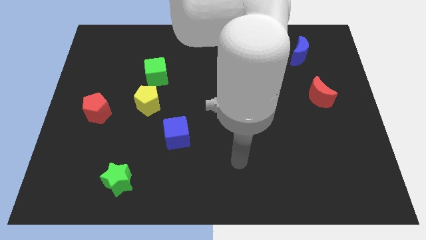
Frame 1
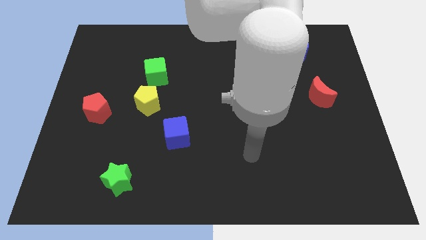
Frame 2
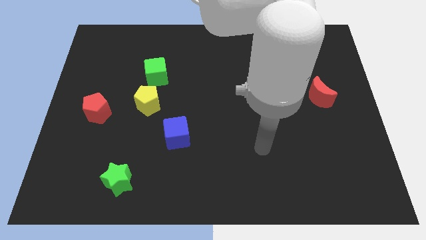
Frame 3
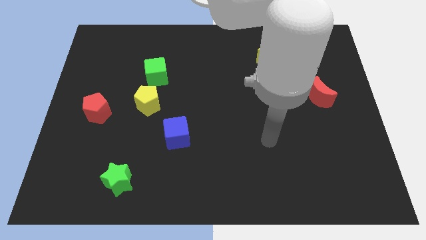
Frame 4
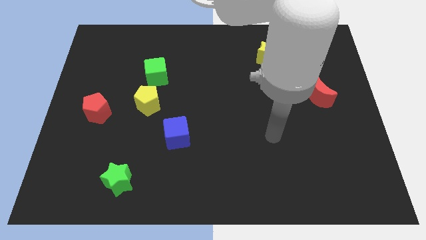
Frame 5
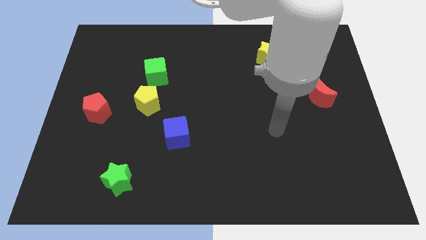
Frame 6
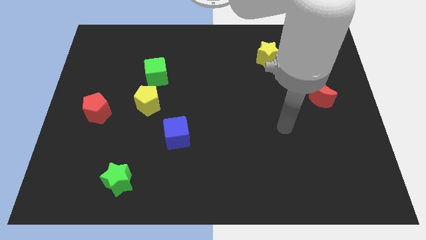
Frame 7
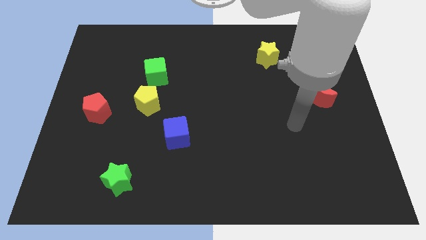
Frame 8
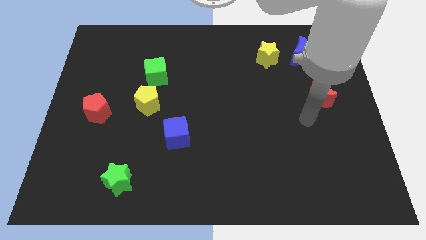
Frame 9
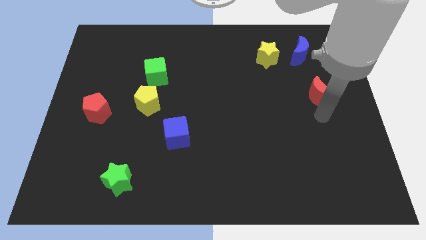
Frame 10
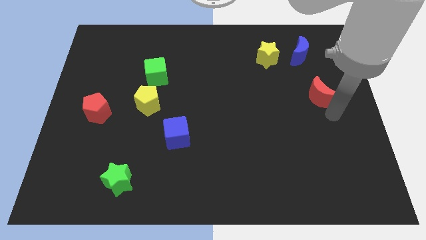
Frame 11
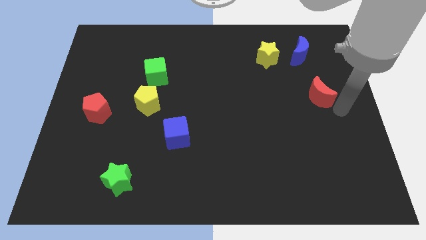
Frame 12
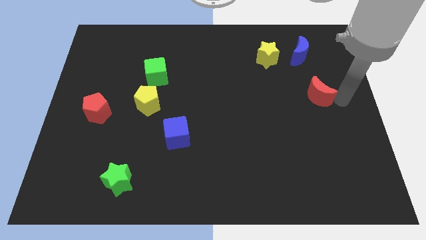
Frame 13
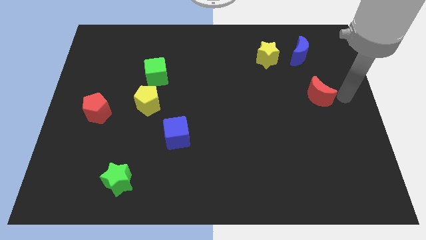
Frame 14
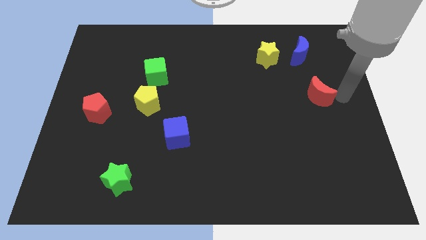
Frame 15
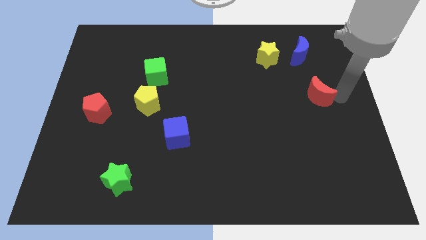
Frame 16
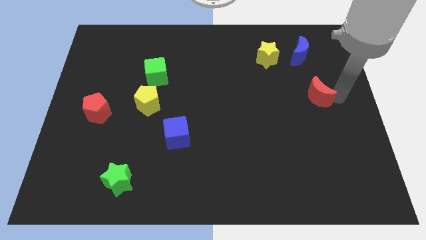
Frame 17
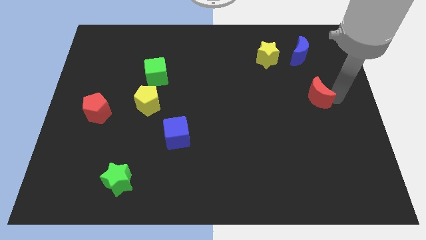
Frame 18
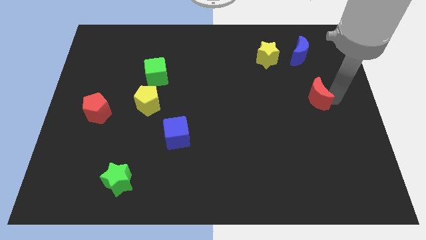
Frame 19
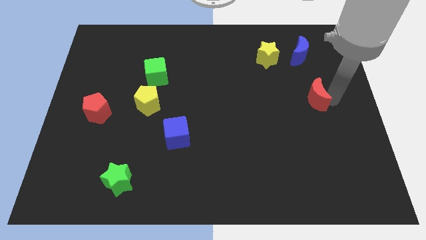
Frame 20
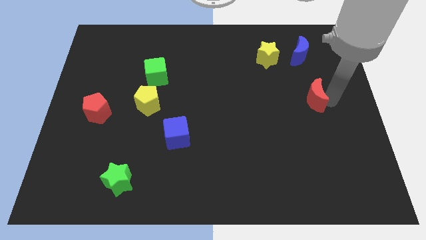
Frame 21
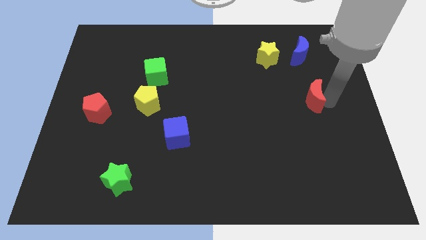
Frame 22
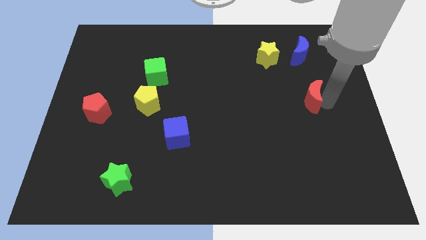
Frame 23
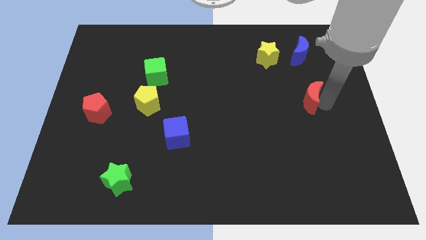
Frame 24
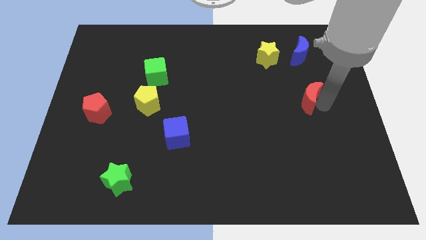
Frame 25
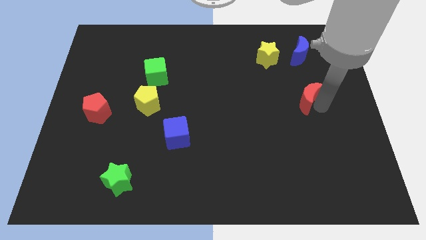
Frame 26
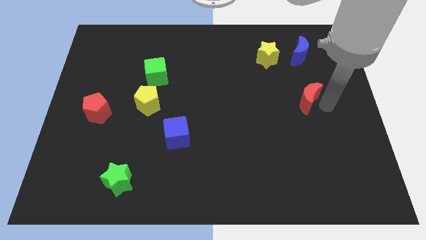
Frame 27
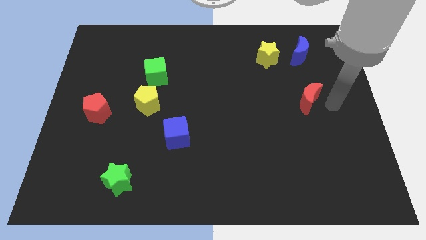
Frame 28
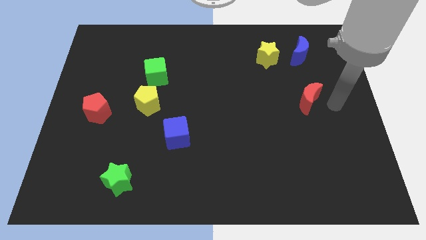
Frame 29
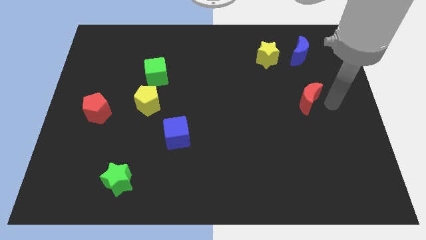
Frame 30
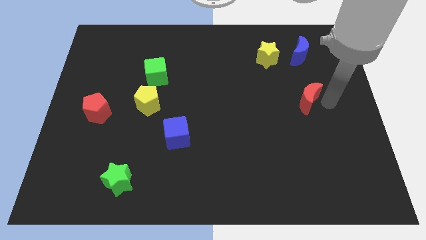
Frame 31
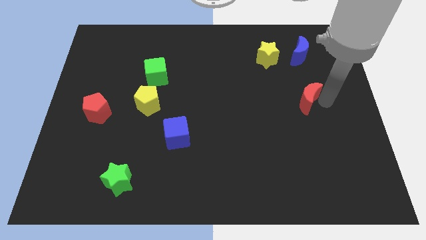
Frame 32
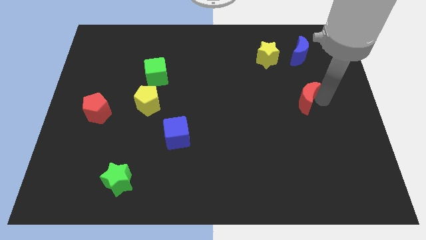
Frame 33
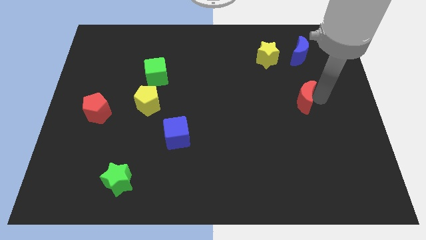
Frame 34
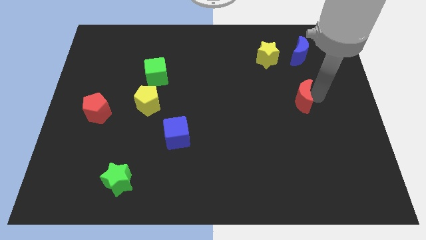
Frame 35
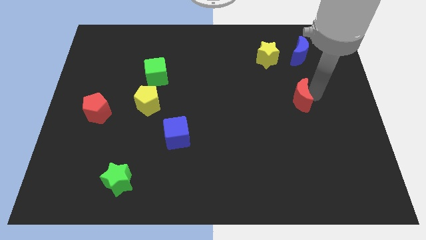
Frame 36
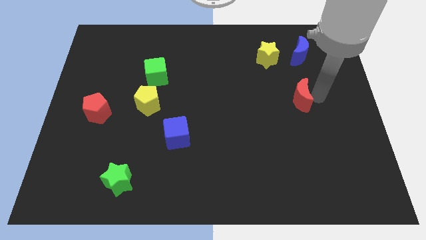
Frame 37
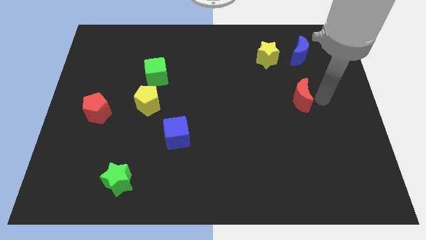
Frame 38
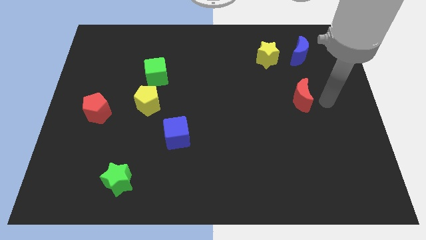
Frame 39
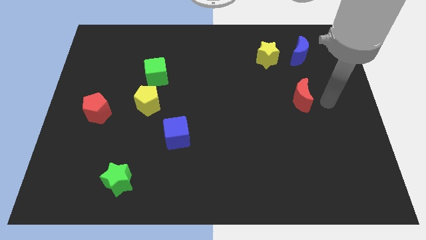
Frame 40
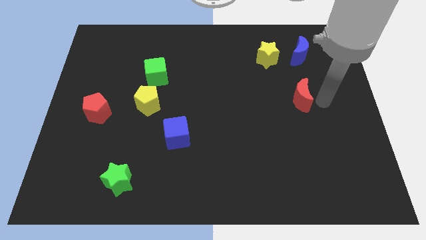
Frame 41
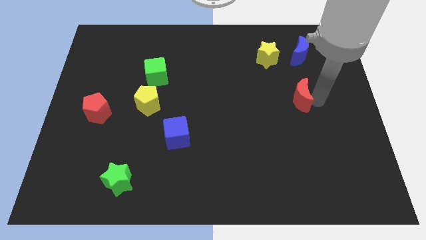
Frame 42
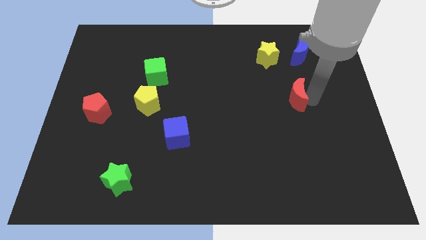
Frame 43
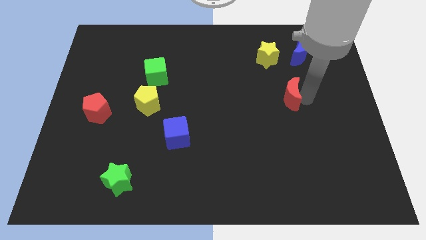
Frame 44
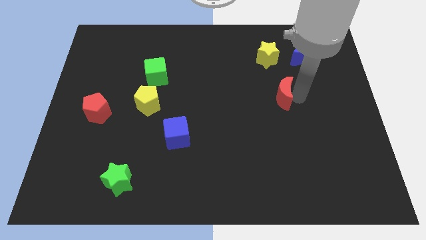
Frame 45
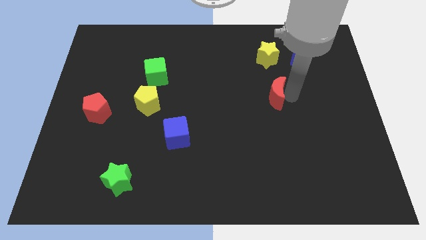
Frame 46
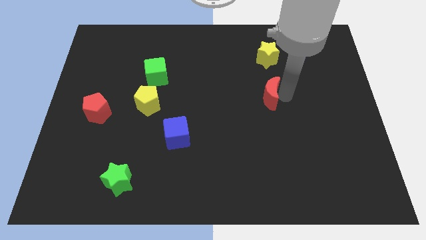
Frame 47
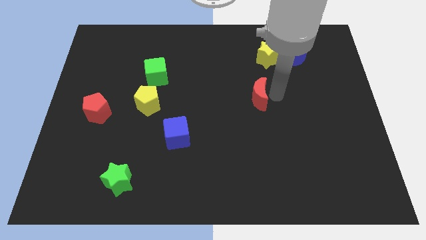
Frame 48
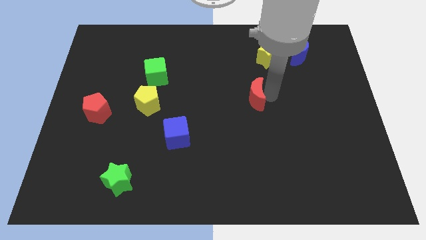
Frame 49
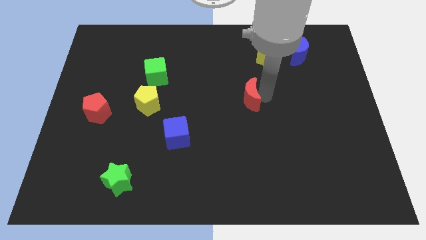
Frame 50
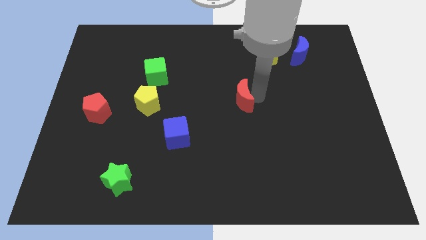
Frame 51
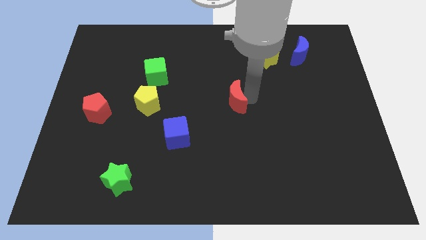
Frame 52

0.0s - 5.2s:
slide the red moon to the left

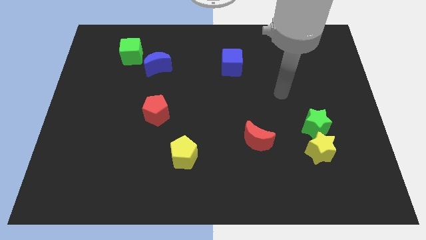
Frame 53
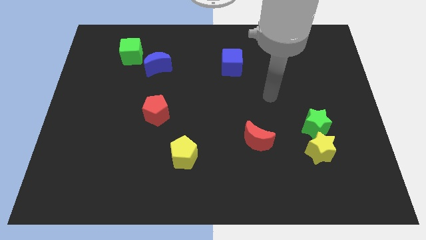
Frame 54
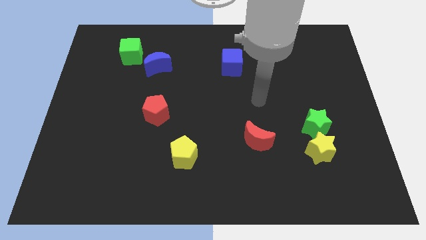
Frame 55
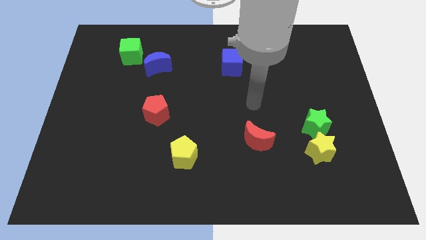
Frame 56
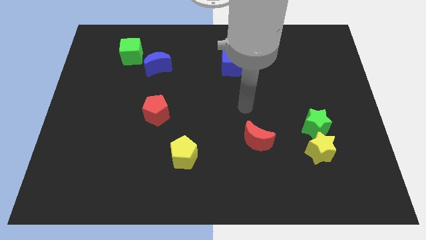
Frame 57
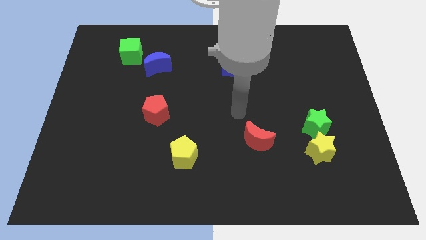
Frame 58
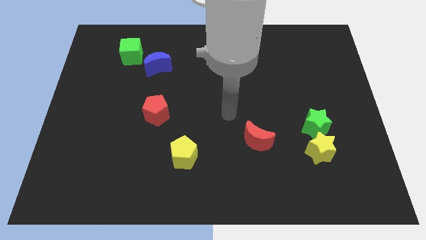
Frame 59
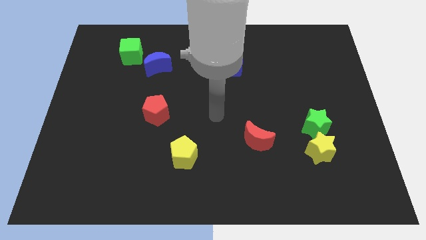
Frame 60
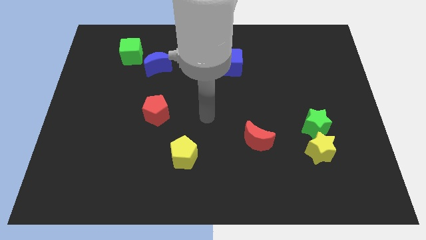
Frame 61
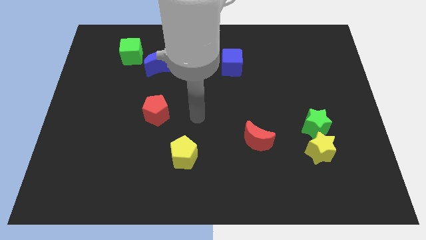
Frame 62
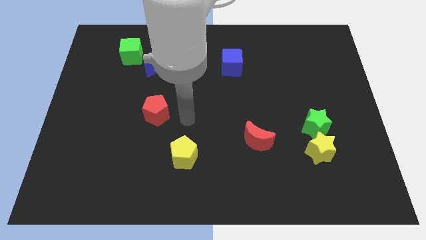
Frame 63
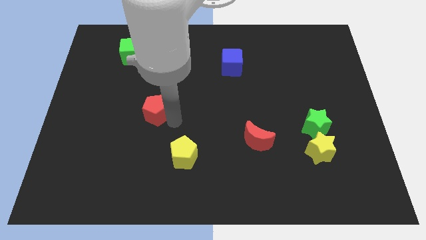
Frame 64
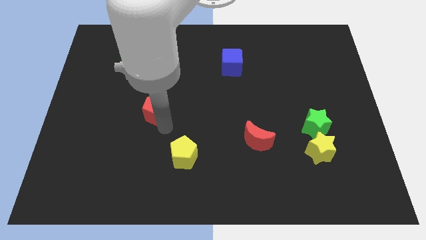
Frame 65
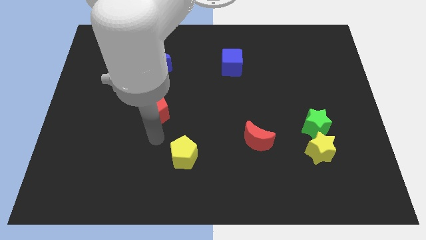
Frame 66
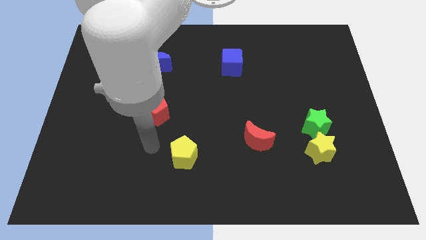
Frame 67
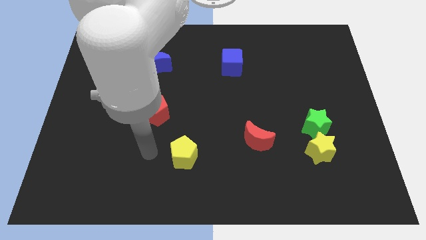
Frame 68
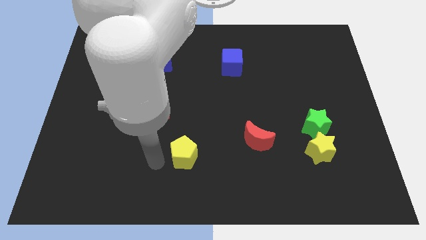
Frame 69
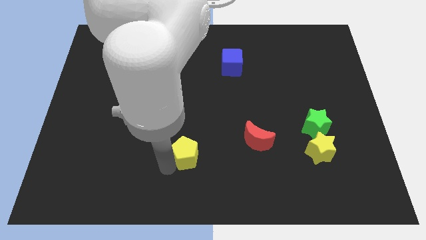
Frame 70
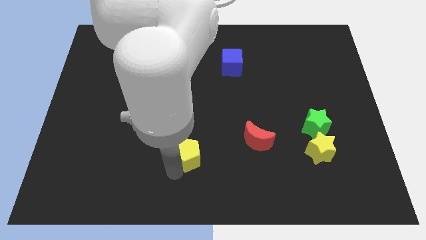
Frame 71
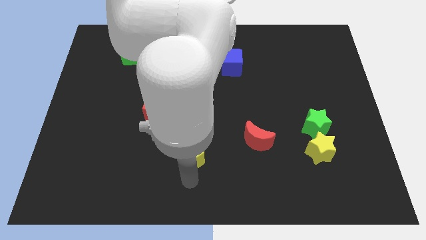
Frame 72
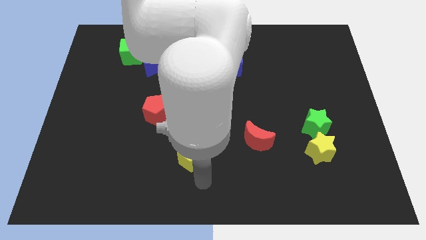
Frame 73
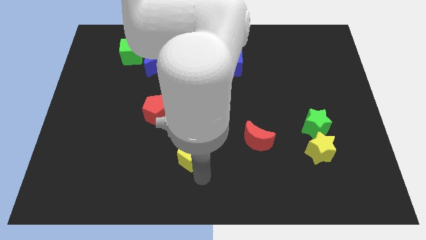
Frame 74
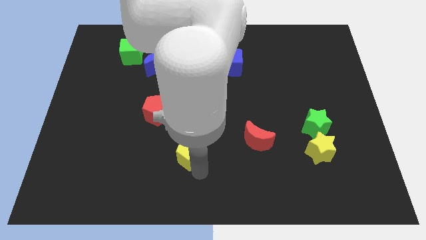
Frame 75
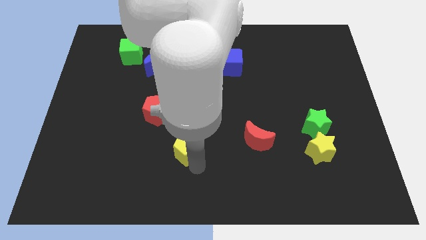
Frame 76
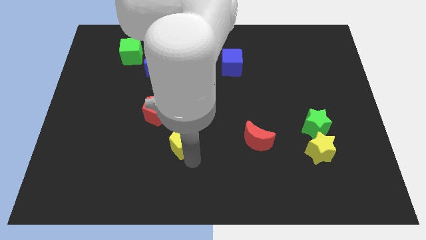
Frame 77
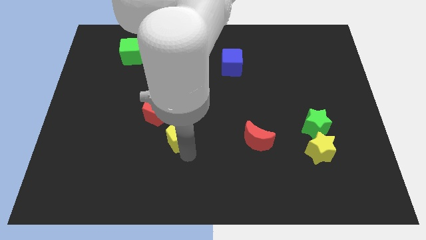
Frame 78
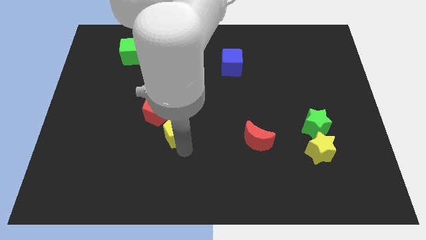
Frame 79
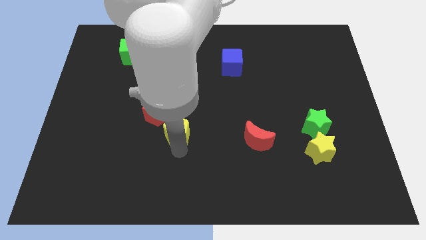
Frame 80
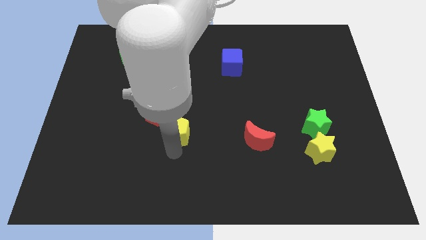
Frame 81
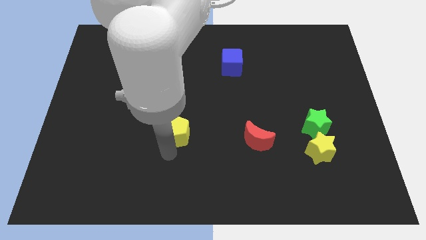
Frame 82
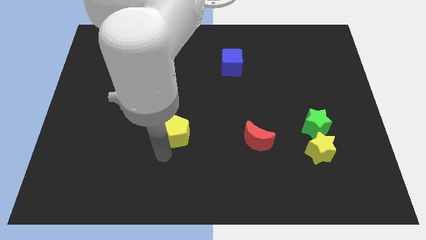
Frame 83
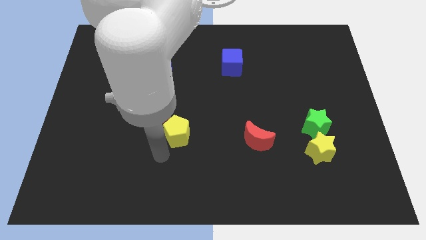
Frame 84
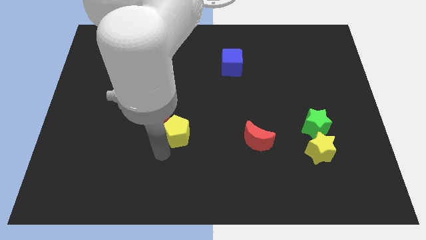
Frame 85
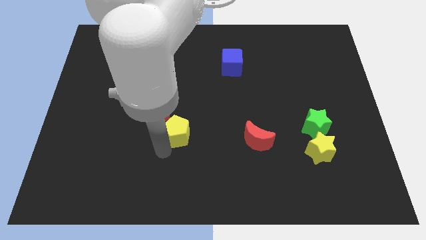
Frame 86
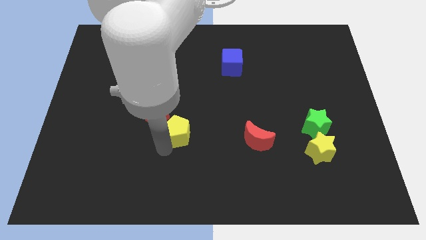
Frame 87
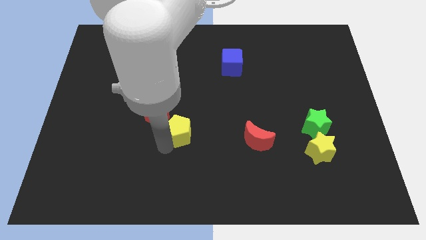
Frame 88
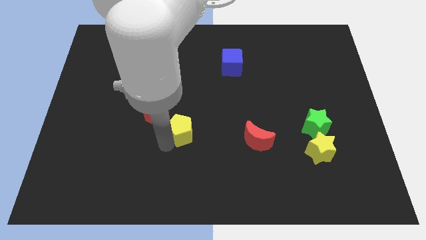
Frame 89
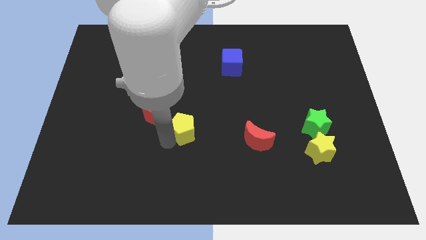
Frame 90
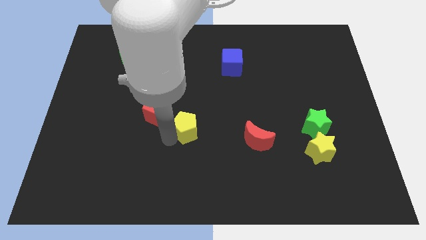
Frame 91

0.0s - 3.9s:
move the yellow pentagon upwards a little bit
